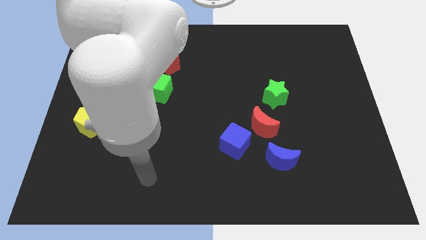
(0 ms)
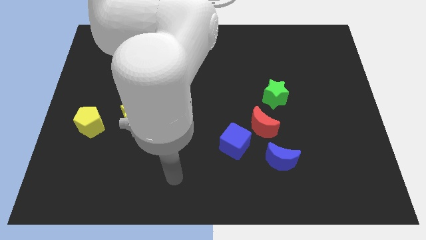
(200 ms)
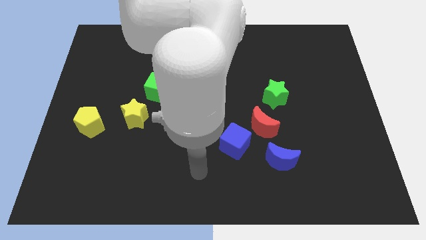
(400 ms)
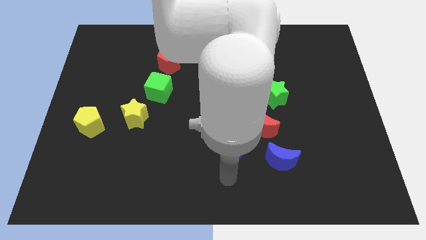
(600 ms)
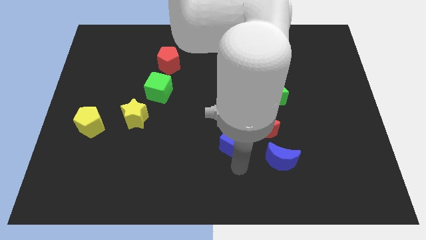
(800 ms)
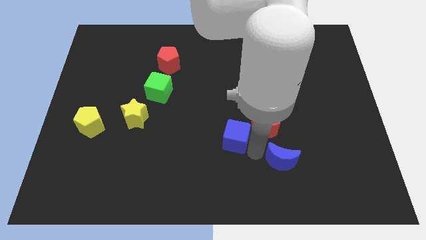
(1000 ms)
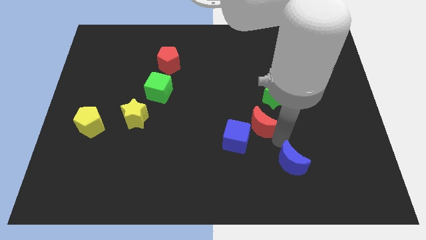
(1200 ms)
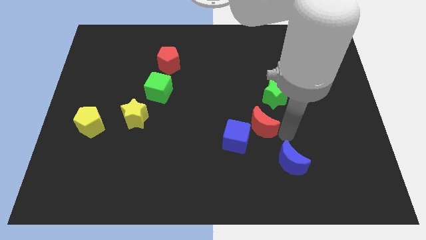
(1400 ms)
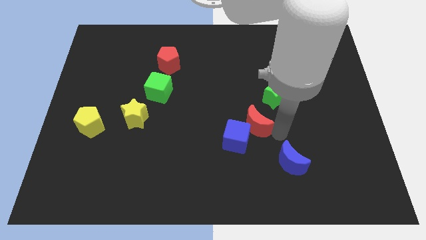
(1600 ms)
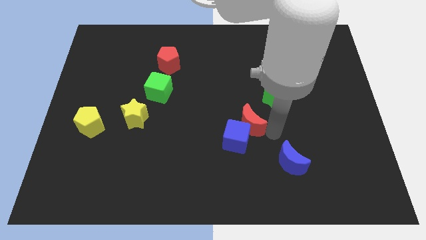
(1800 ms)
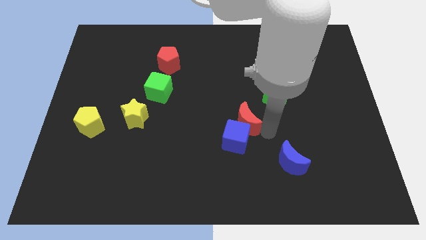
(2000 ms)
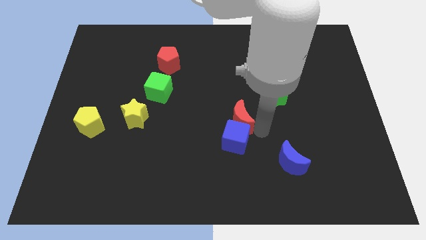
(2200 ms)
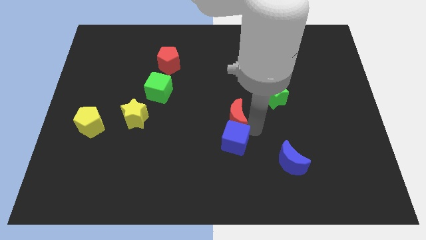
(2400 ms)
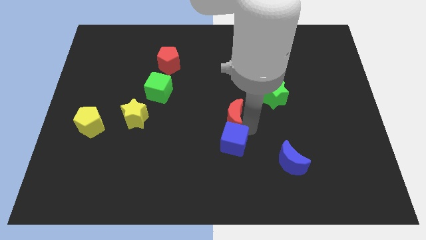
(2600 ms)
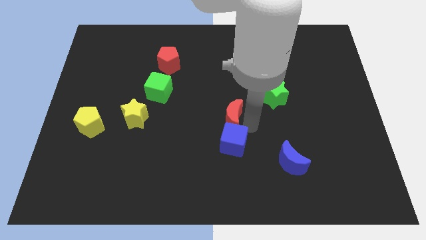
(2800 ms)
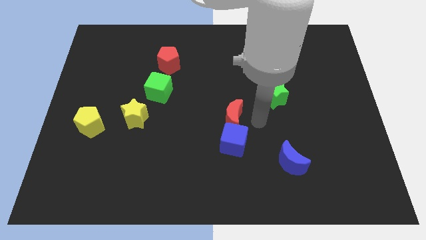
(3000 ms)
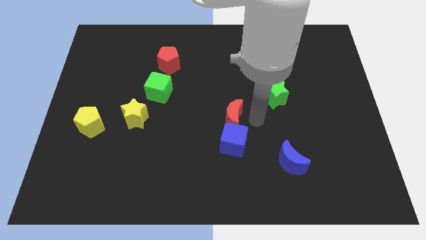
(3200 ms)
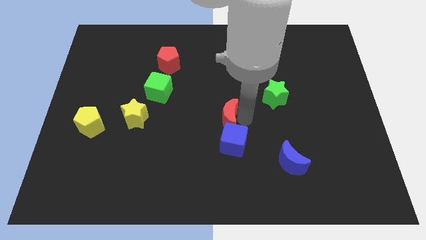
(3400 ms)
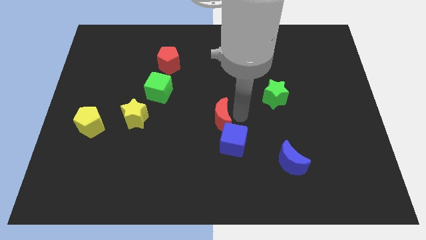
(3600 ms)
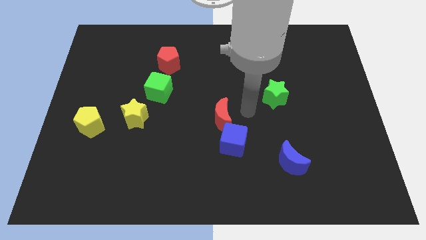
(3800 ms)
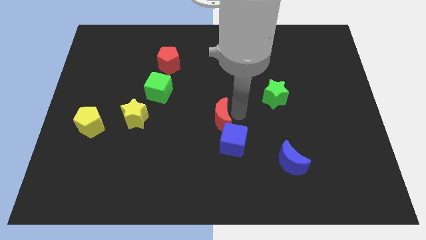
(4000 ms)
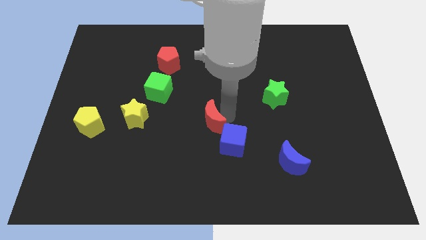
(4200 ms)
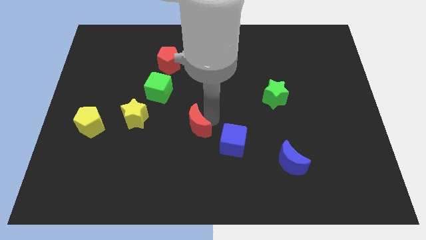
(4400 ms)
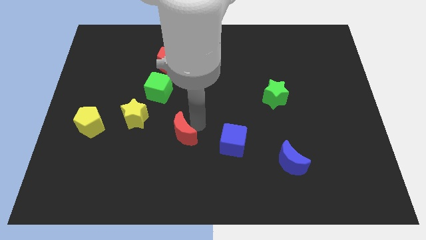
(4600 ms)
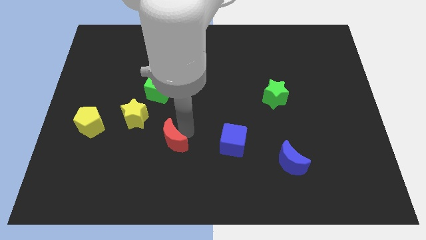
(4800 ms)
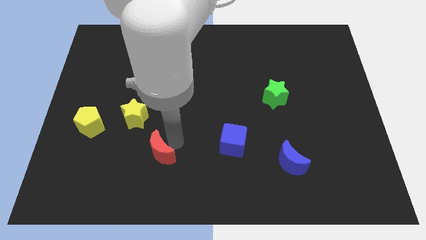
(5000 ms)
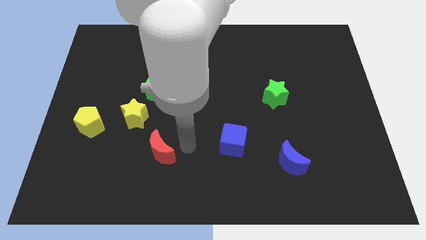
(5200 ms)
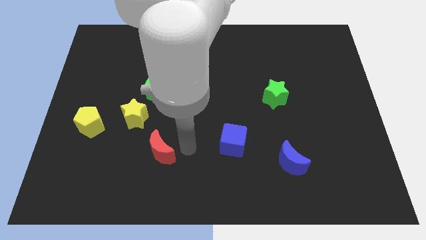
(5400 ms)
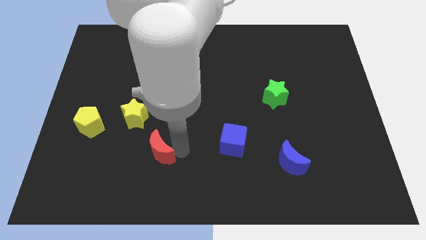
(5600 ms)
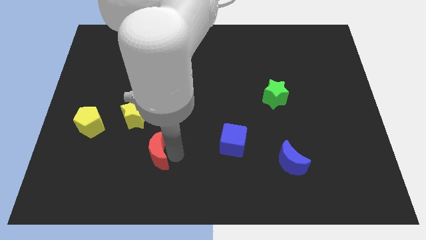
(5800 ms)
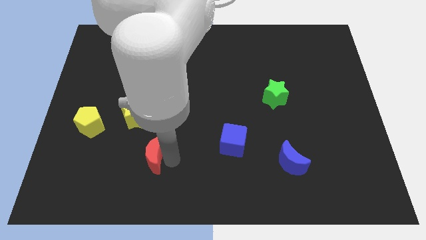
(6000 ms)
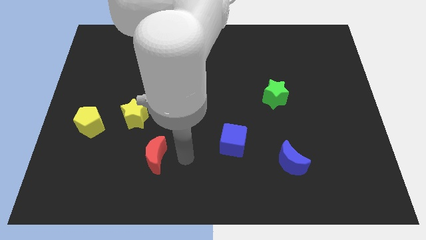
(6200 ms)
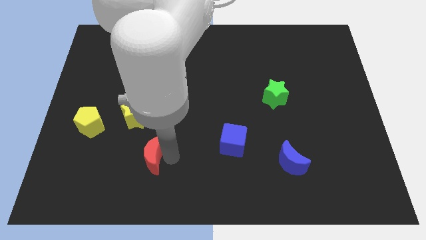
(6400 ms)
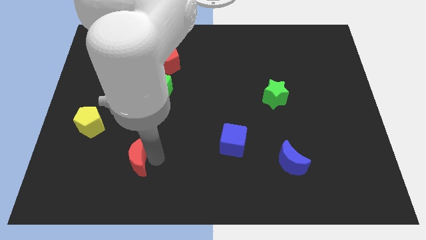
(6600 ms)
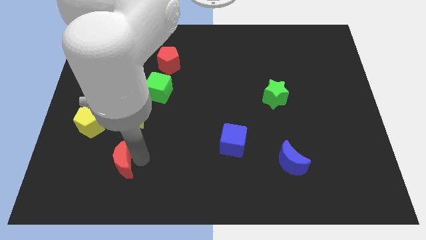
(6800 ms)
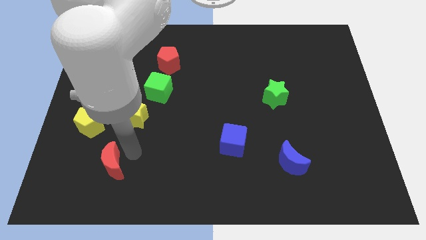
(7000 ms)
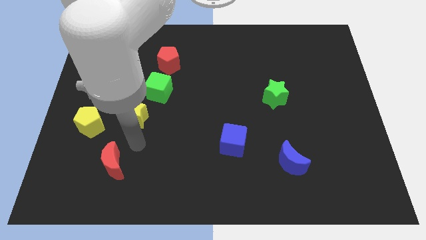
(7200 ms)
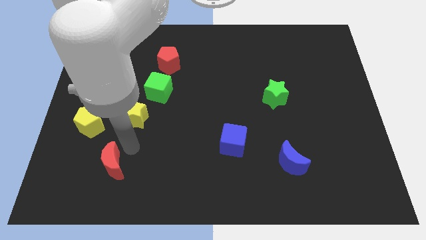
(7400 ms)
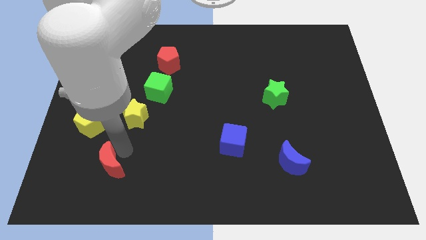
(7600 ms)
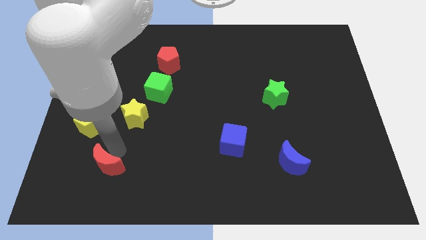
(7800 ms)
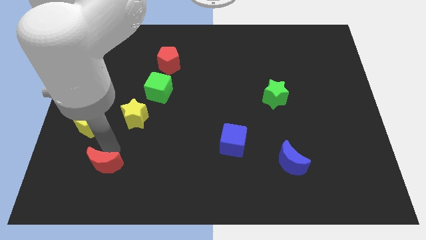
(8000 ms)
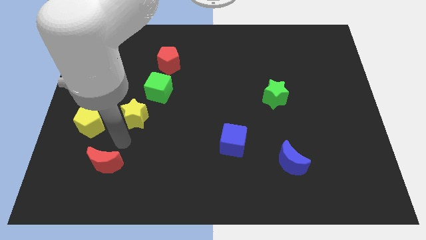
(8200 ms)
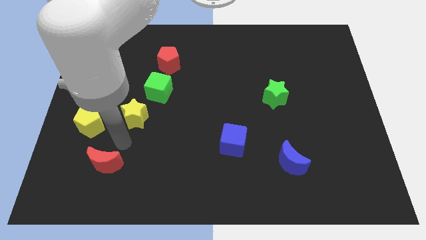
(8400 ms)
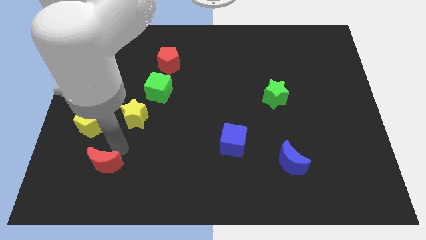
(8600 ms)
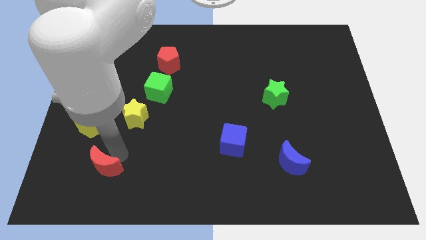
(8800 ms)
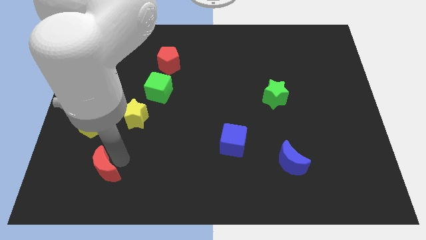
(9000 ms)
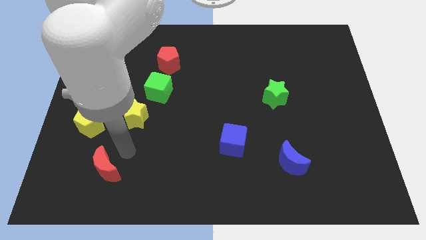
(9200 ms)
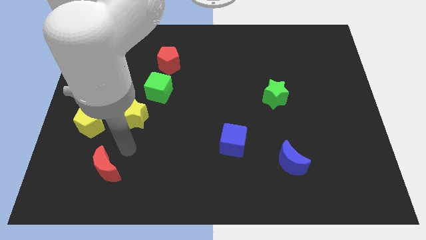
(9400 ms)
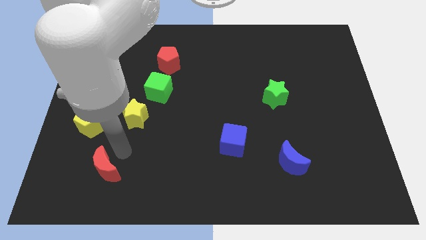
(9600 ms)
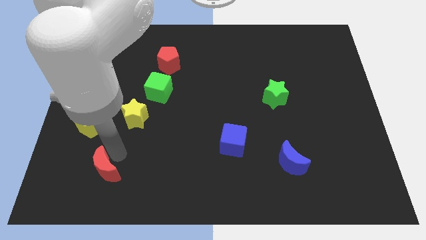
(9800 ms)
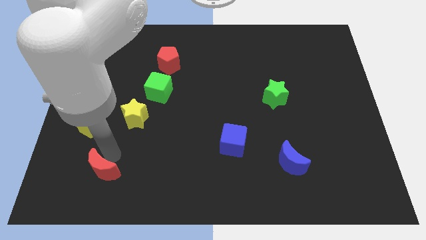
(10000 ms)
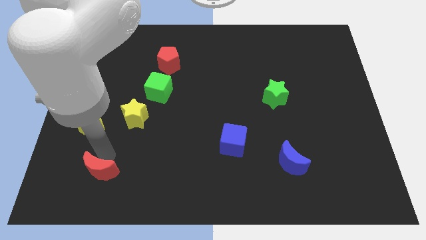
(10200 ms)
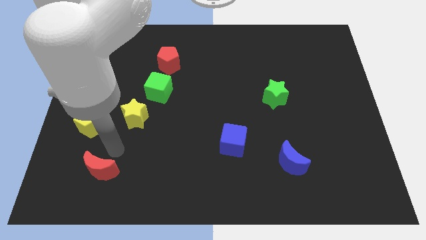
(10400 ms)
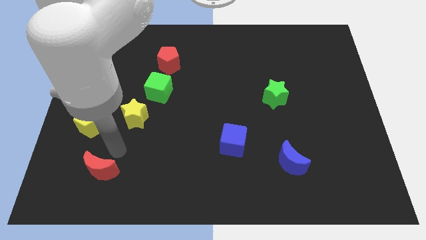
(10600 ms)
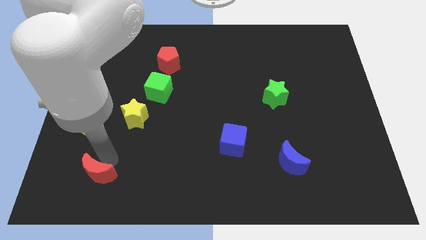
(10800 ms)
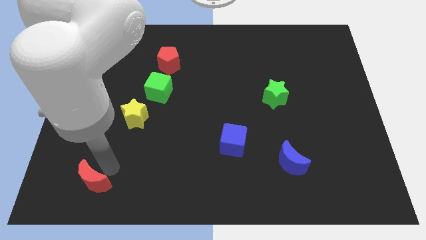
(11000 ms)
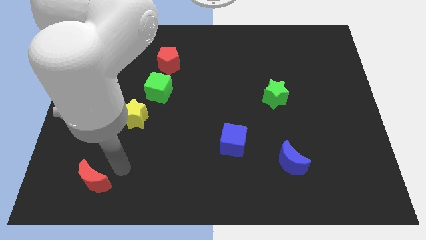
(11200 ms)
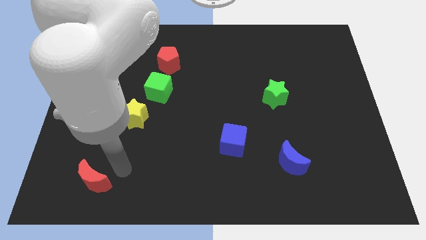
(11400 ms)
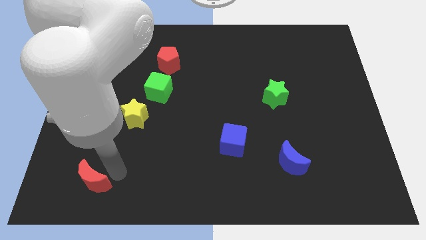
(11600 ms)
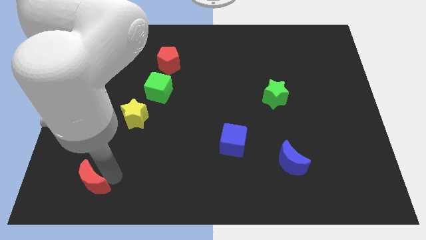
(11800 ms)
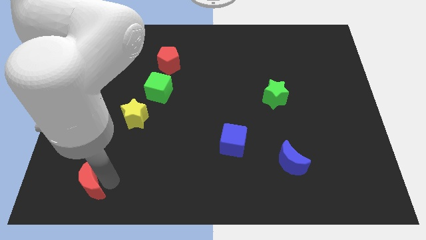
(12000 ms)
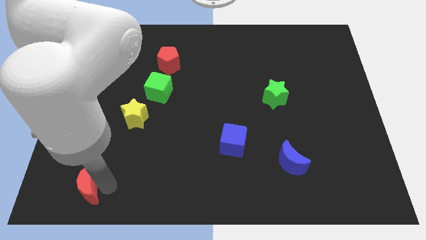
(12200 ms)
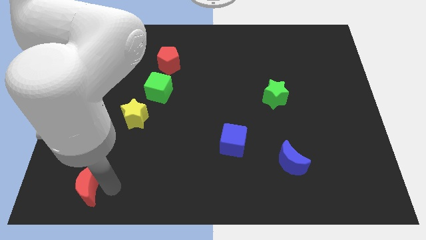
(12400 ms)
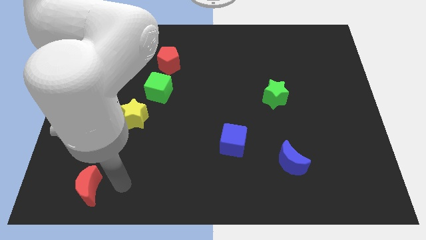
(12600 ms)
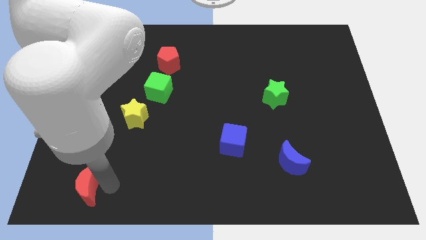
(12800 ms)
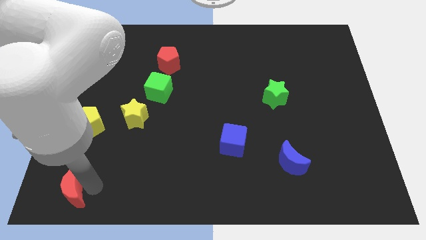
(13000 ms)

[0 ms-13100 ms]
slide the red moon to the bottom left
